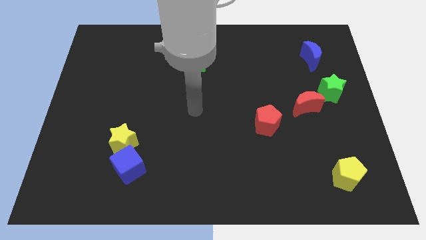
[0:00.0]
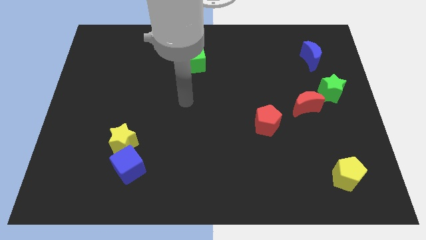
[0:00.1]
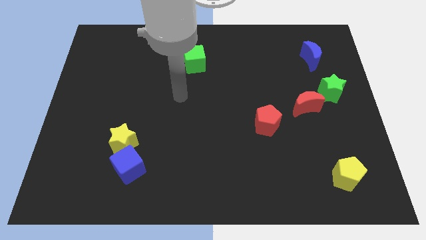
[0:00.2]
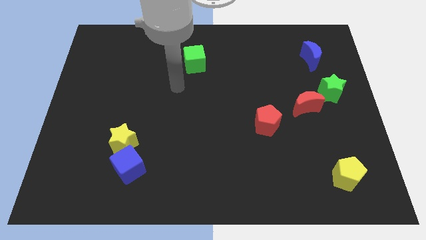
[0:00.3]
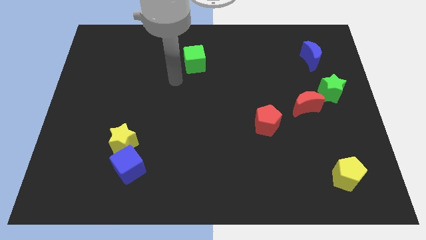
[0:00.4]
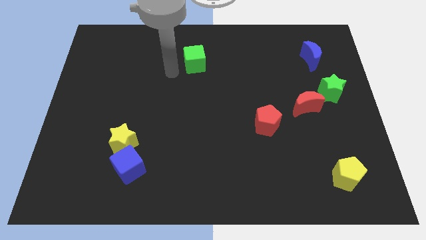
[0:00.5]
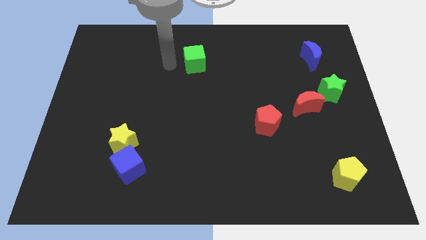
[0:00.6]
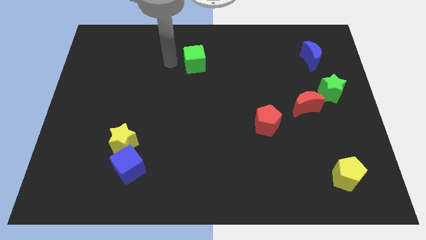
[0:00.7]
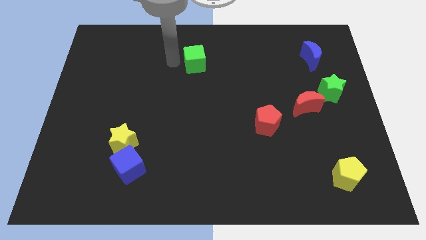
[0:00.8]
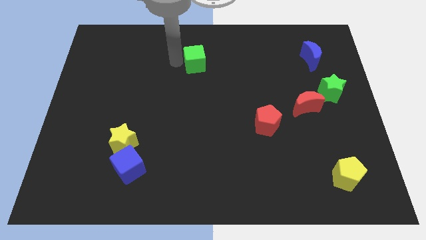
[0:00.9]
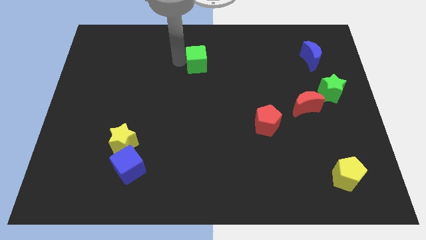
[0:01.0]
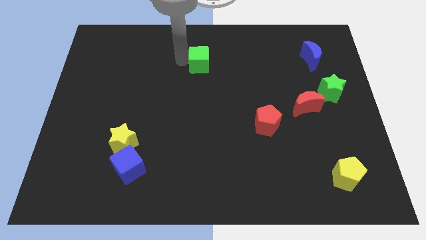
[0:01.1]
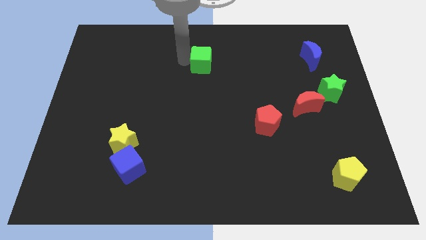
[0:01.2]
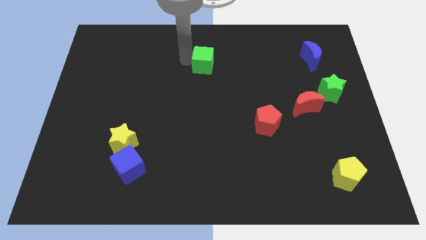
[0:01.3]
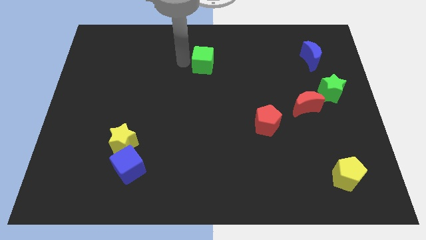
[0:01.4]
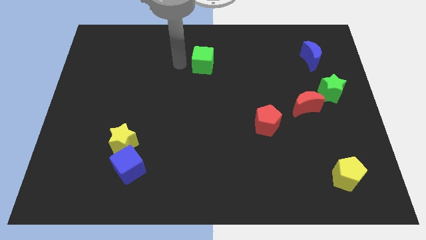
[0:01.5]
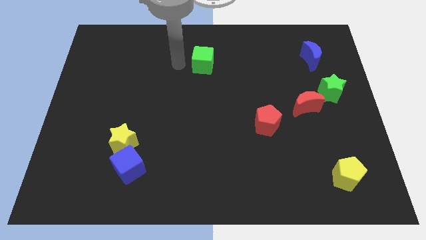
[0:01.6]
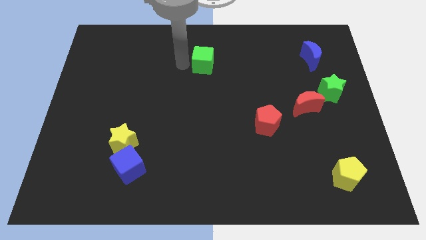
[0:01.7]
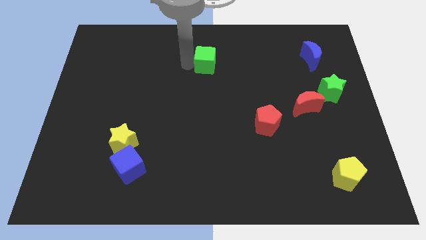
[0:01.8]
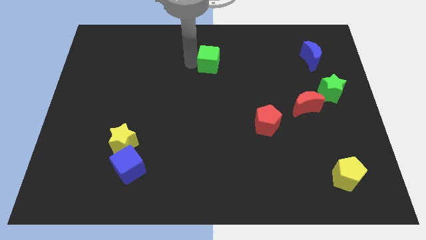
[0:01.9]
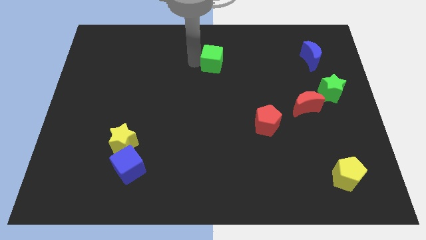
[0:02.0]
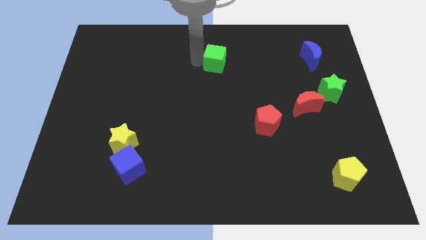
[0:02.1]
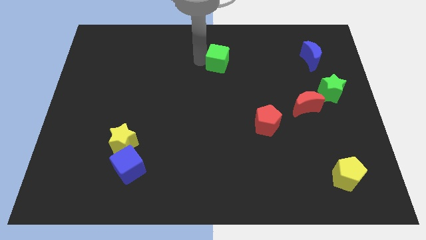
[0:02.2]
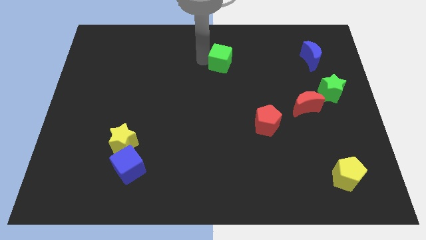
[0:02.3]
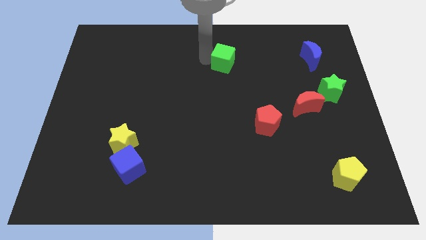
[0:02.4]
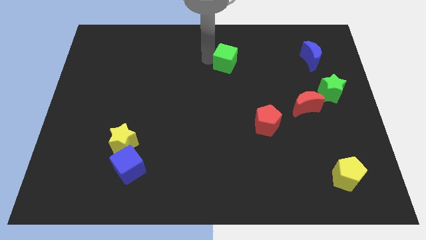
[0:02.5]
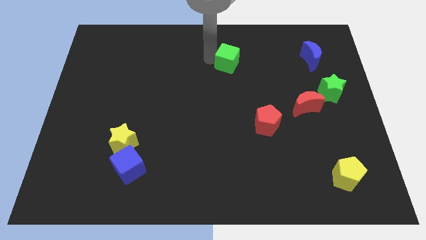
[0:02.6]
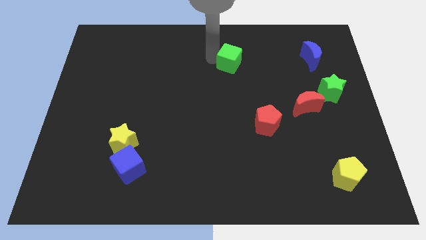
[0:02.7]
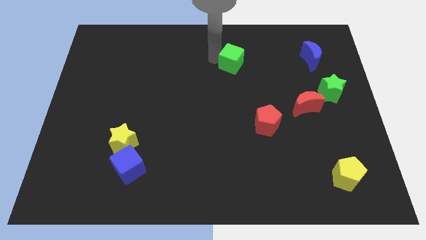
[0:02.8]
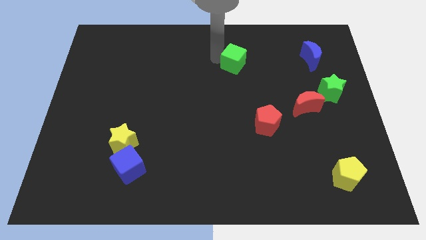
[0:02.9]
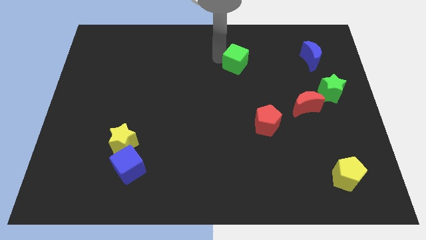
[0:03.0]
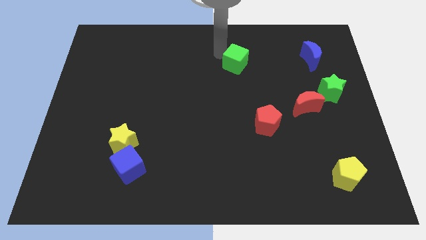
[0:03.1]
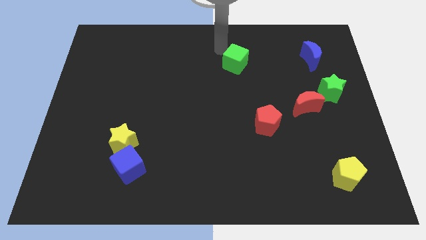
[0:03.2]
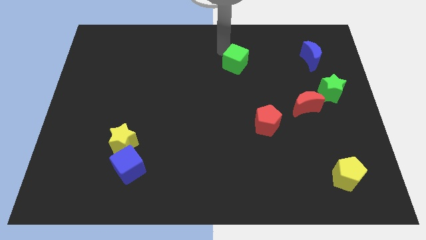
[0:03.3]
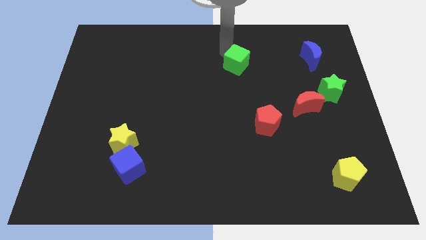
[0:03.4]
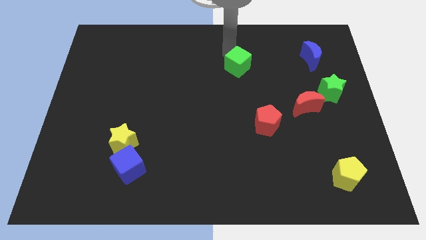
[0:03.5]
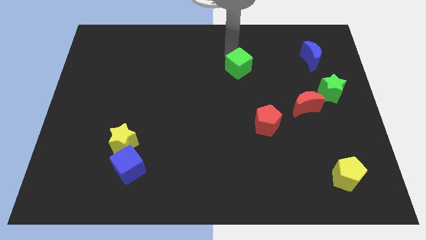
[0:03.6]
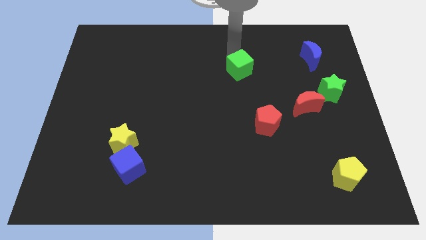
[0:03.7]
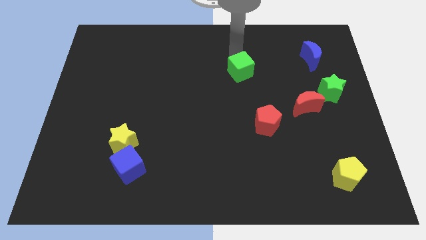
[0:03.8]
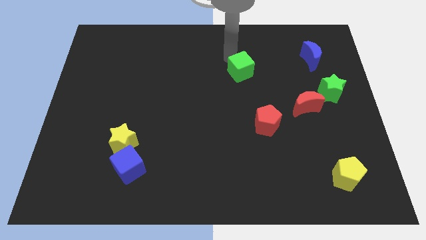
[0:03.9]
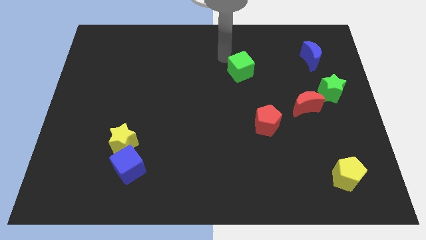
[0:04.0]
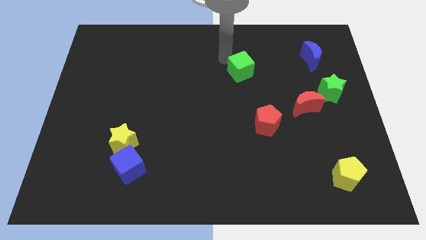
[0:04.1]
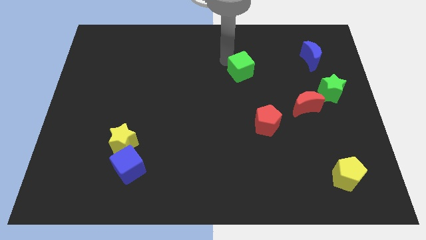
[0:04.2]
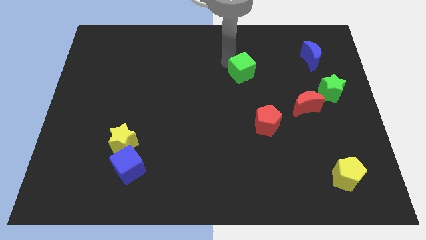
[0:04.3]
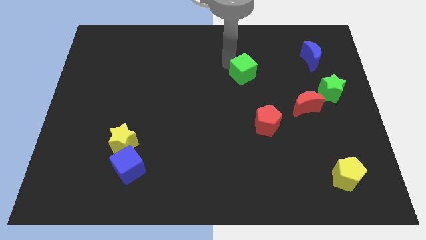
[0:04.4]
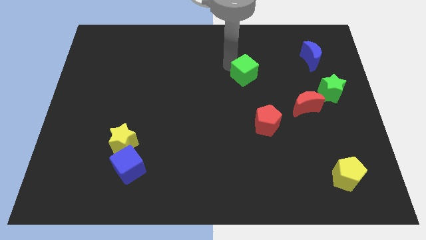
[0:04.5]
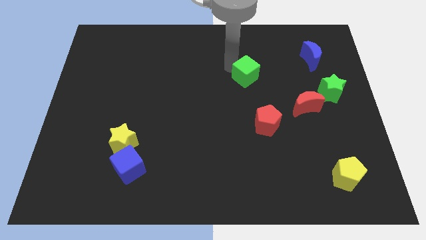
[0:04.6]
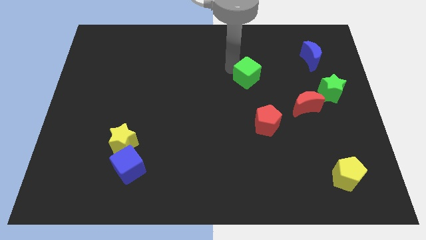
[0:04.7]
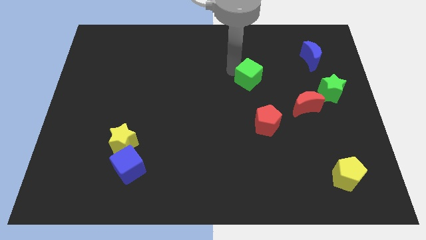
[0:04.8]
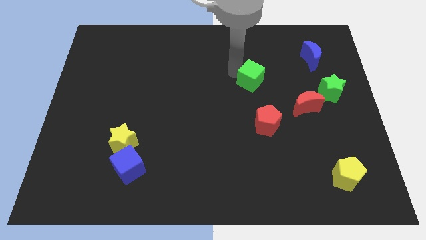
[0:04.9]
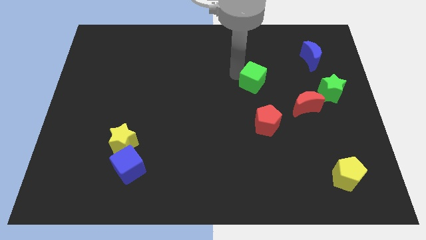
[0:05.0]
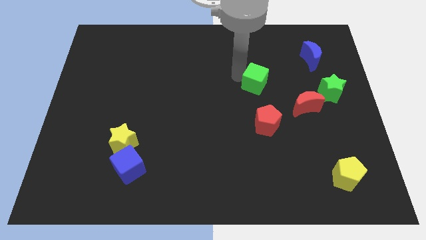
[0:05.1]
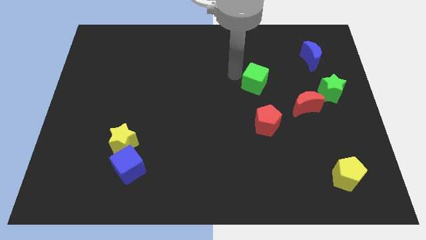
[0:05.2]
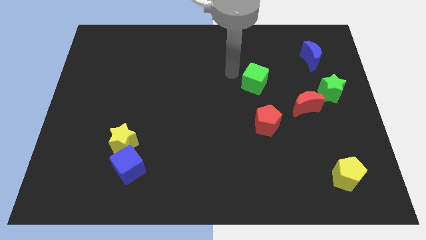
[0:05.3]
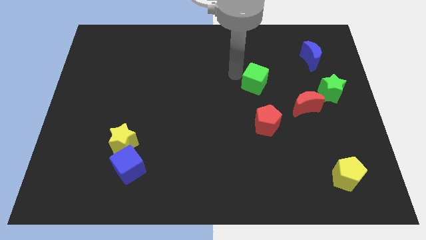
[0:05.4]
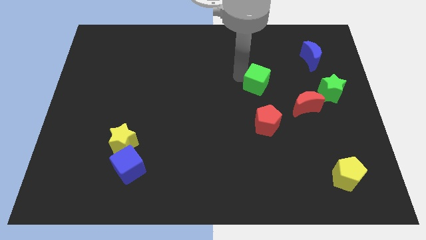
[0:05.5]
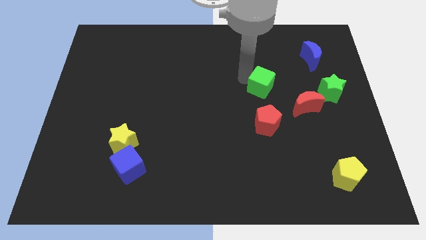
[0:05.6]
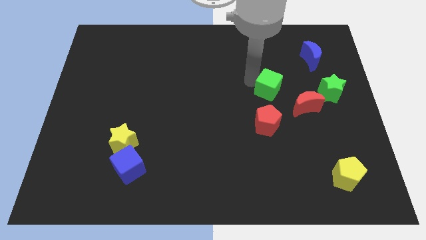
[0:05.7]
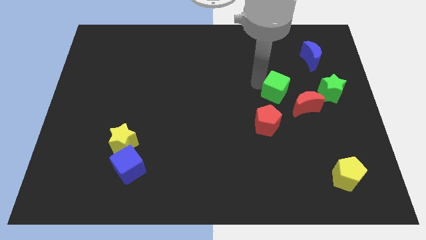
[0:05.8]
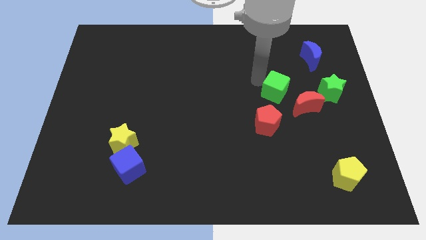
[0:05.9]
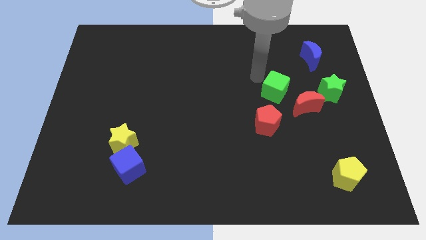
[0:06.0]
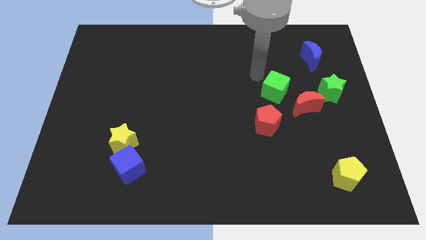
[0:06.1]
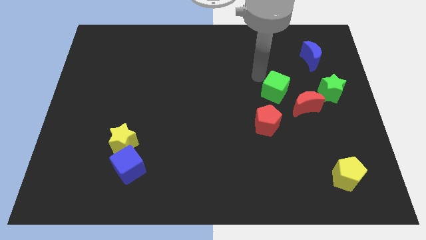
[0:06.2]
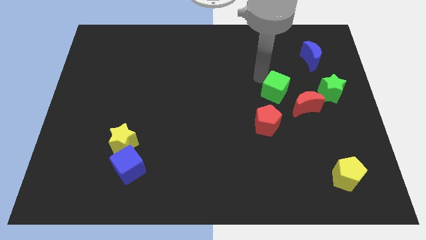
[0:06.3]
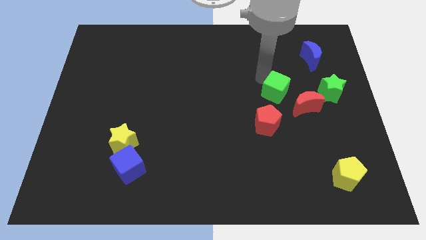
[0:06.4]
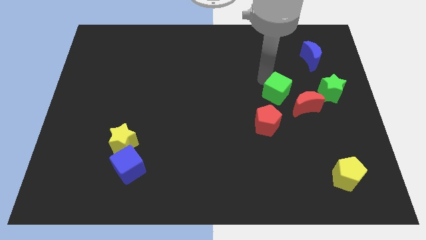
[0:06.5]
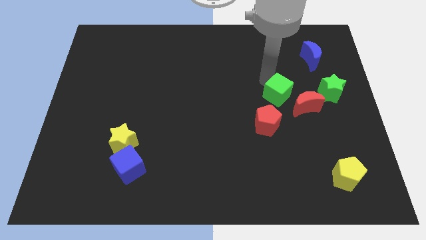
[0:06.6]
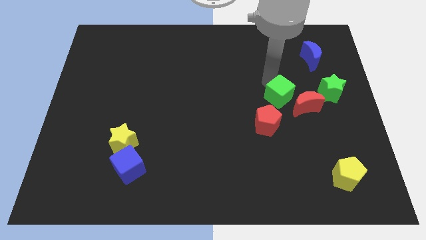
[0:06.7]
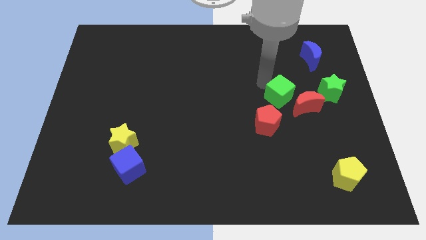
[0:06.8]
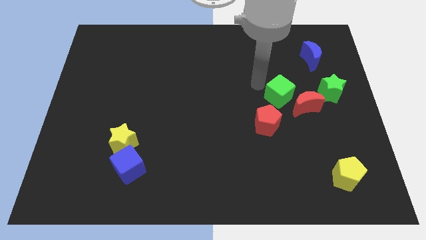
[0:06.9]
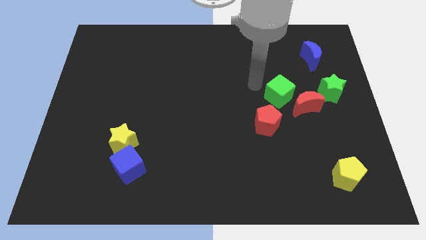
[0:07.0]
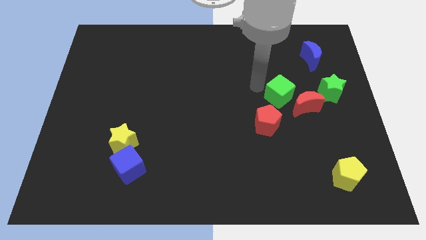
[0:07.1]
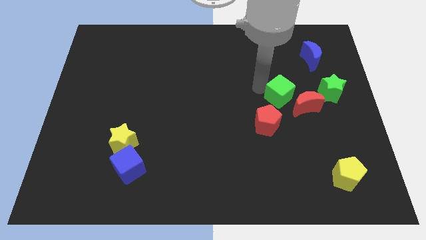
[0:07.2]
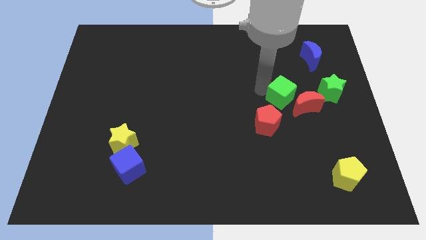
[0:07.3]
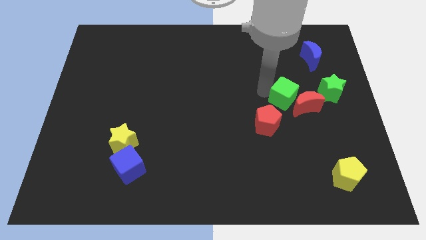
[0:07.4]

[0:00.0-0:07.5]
move the green cube towards the red moon

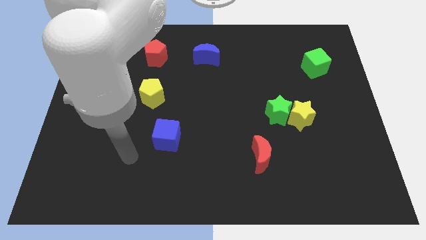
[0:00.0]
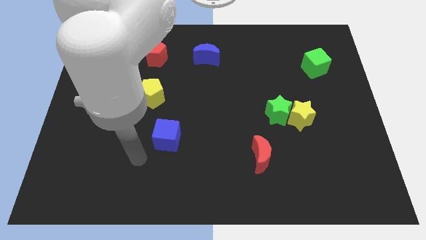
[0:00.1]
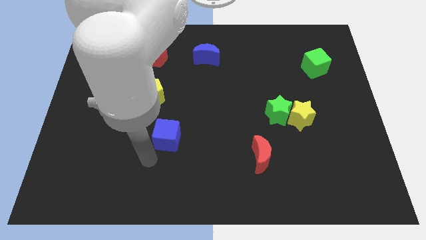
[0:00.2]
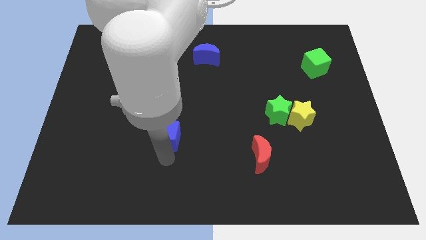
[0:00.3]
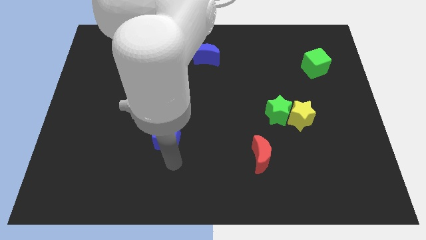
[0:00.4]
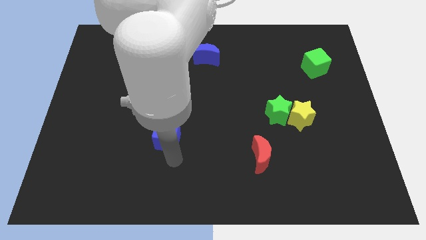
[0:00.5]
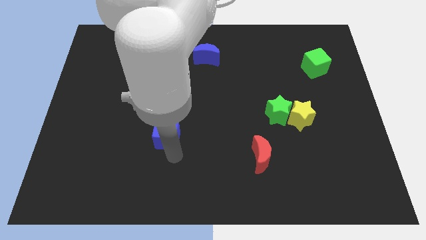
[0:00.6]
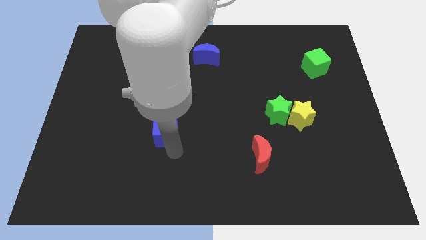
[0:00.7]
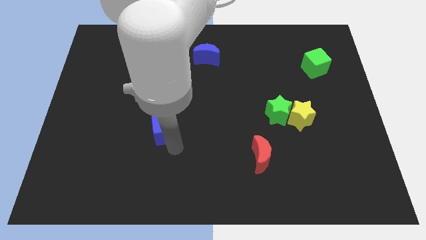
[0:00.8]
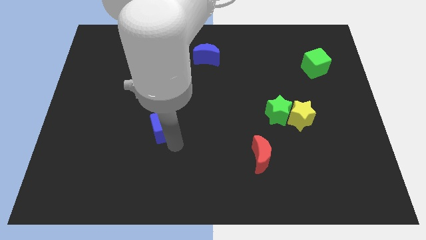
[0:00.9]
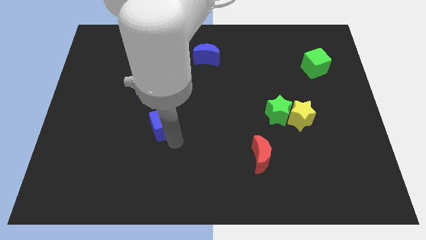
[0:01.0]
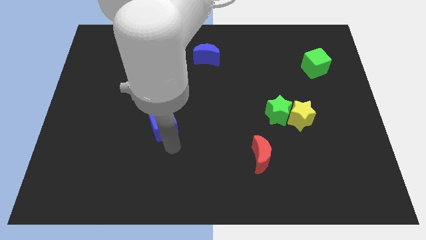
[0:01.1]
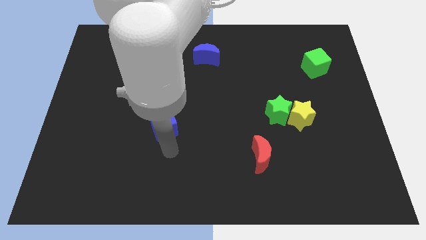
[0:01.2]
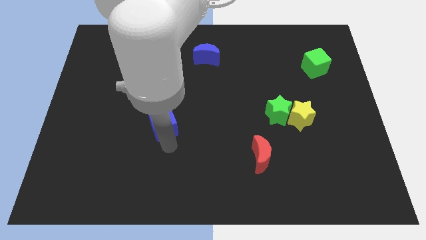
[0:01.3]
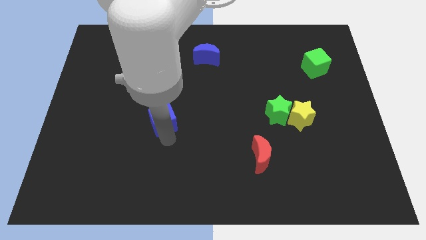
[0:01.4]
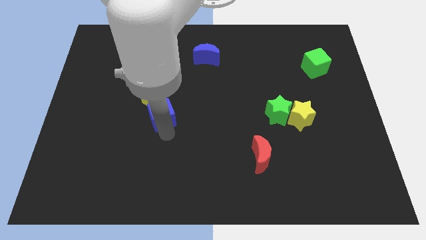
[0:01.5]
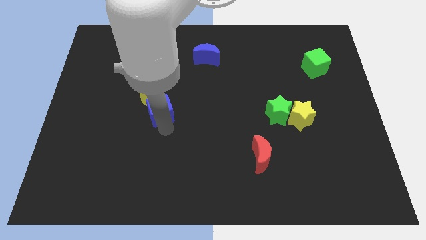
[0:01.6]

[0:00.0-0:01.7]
put the blue cube to the yellow pentagon
